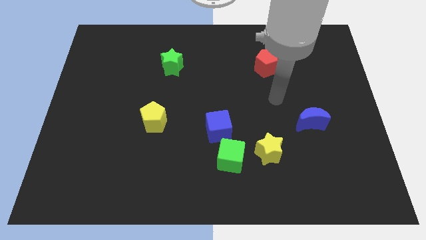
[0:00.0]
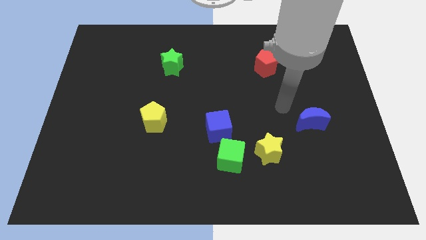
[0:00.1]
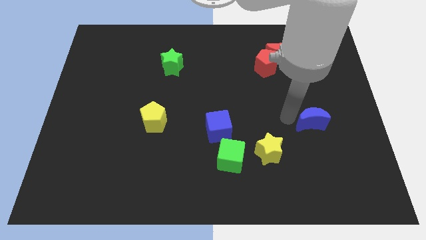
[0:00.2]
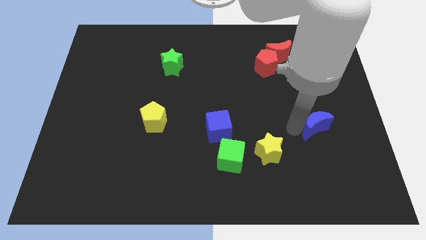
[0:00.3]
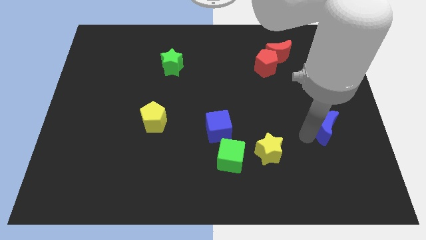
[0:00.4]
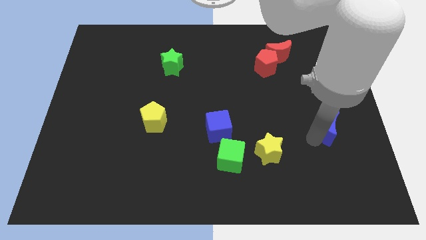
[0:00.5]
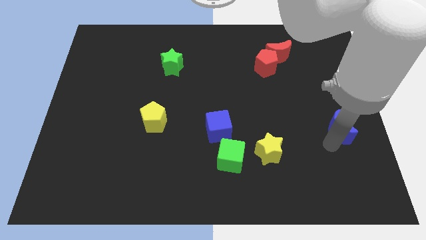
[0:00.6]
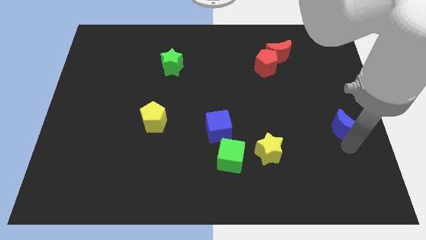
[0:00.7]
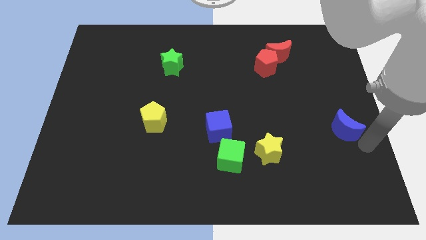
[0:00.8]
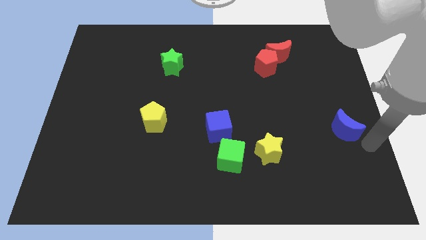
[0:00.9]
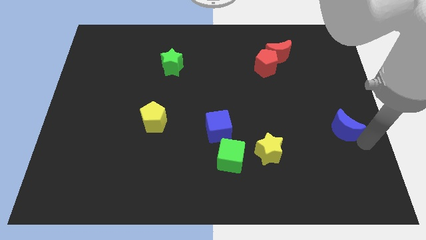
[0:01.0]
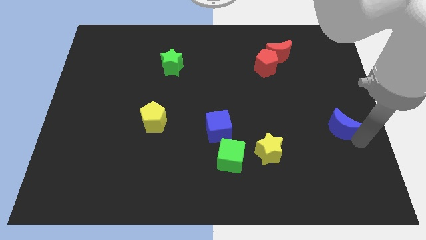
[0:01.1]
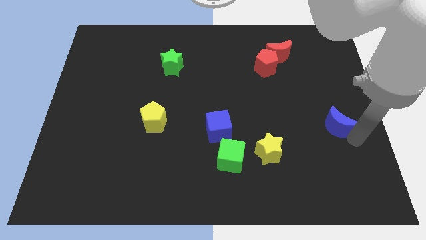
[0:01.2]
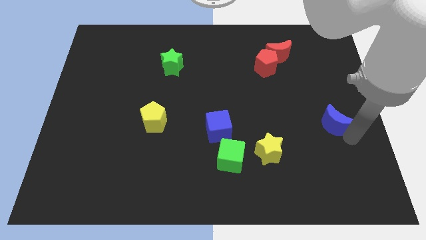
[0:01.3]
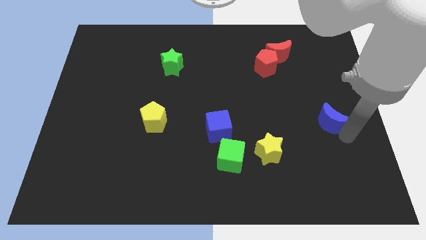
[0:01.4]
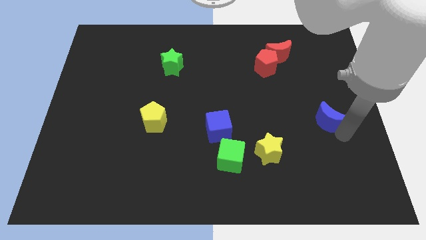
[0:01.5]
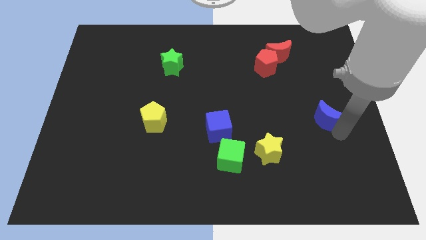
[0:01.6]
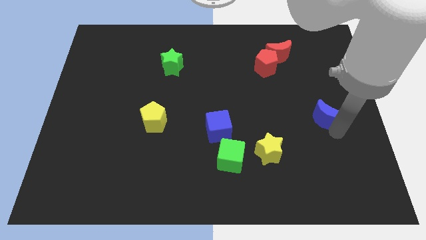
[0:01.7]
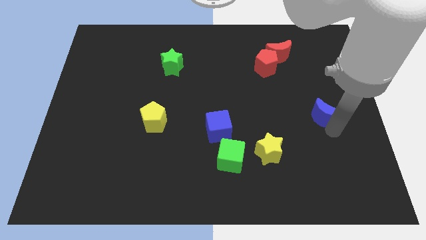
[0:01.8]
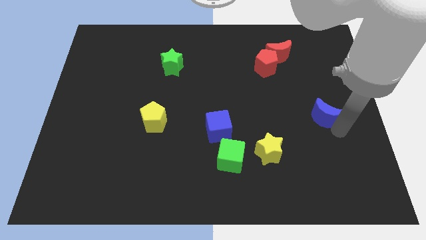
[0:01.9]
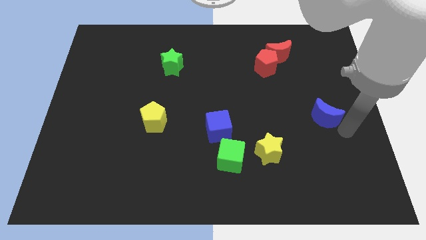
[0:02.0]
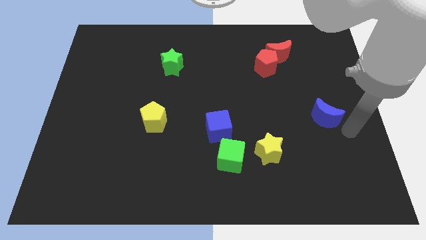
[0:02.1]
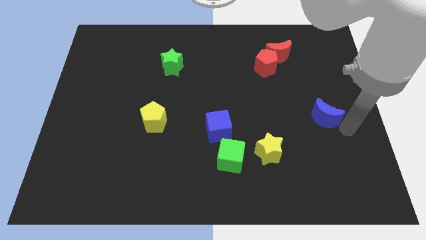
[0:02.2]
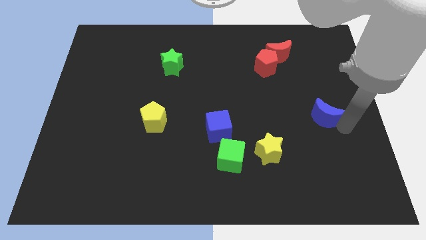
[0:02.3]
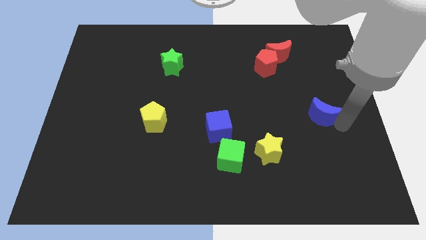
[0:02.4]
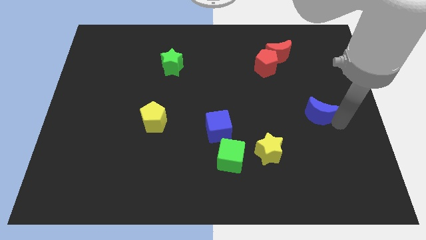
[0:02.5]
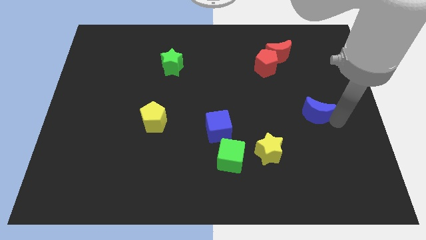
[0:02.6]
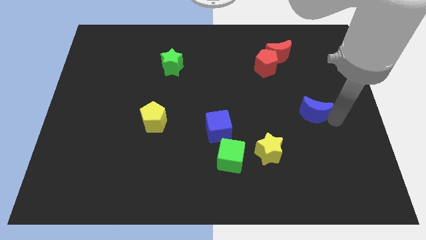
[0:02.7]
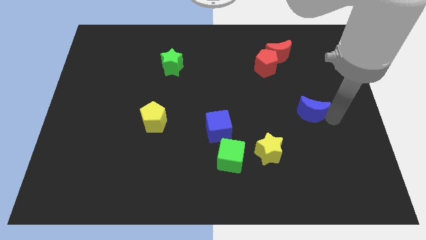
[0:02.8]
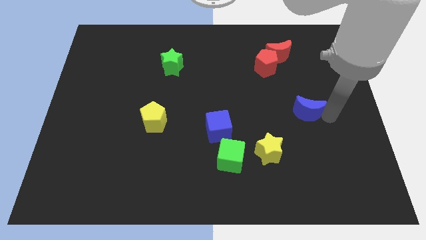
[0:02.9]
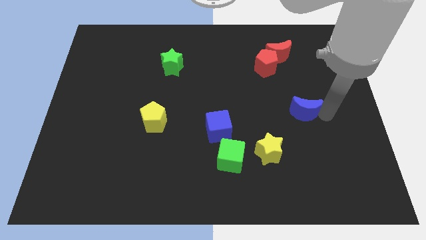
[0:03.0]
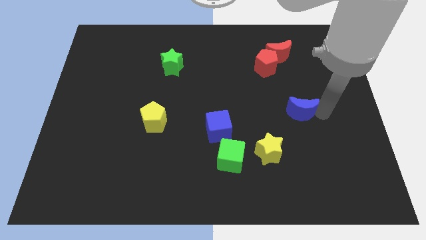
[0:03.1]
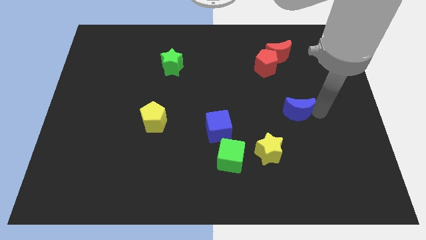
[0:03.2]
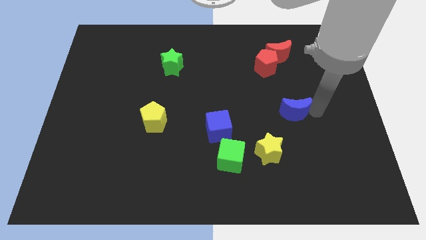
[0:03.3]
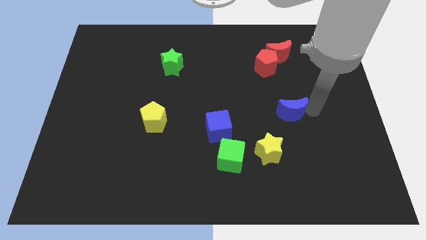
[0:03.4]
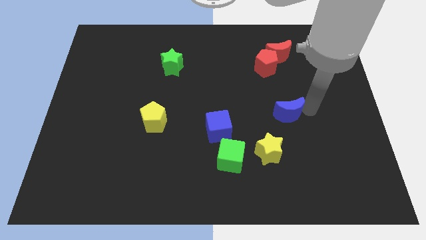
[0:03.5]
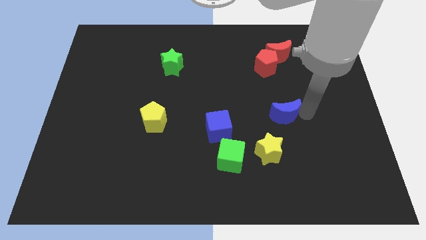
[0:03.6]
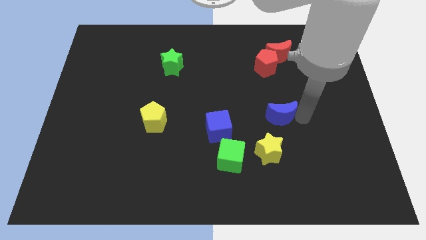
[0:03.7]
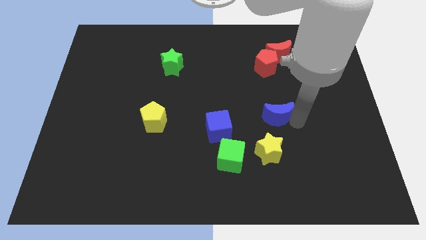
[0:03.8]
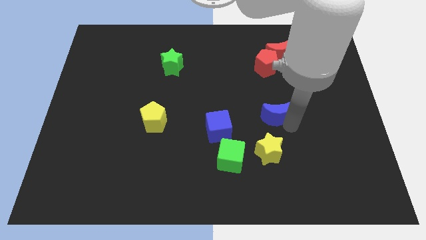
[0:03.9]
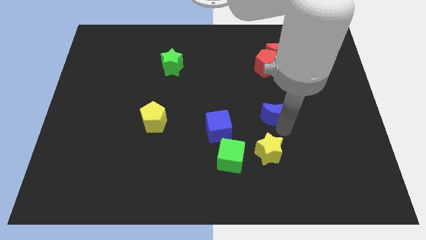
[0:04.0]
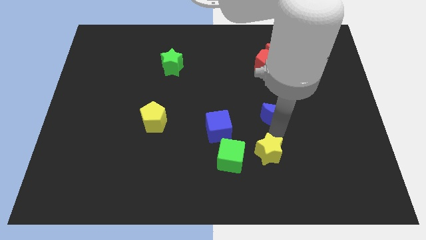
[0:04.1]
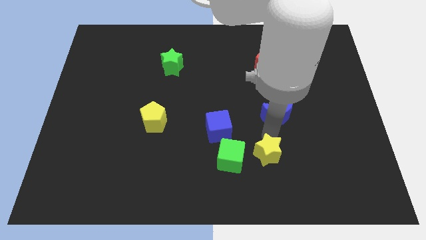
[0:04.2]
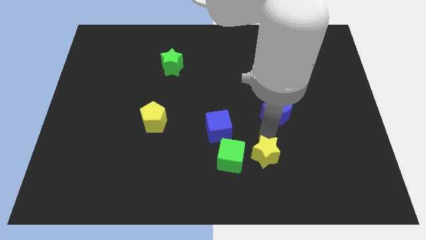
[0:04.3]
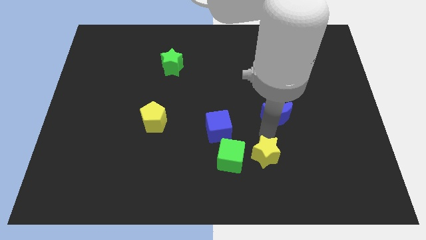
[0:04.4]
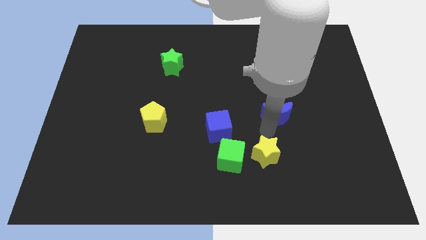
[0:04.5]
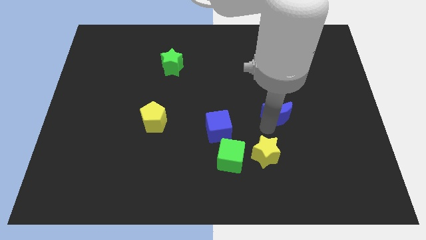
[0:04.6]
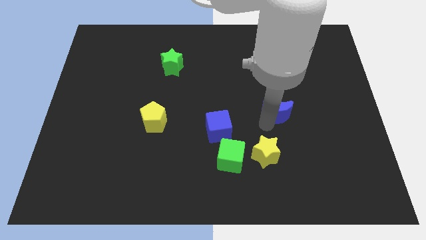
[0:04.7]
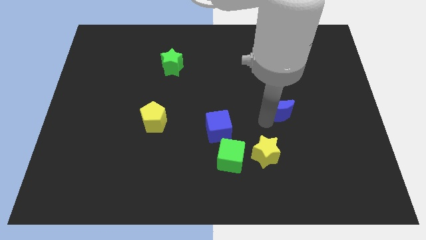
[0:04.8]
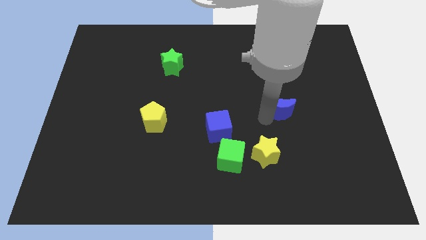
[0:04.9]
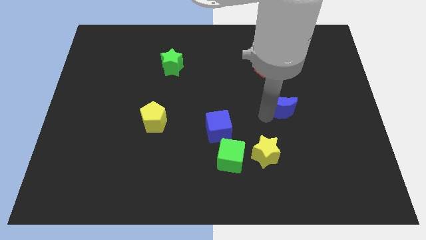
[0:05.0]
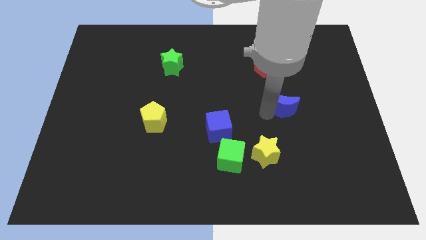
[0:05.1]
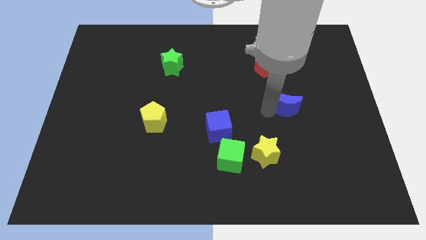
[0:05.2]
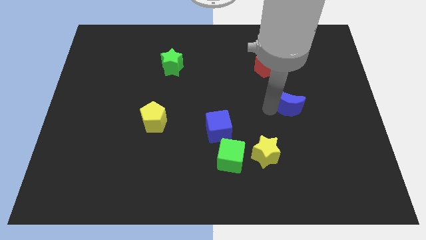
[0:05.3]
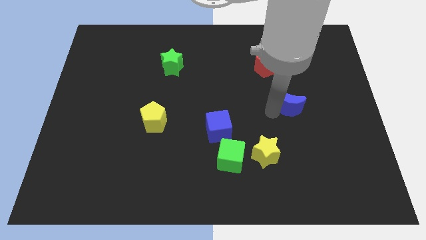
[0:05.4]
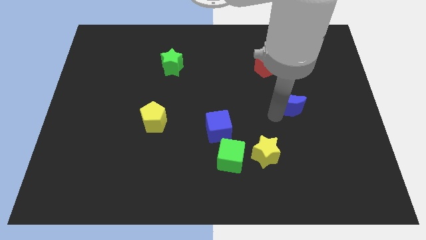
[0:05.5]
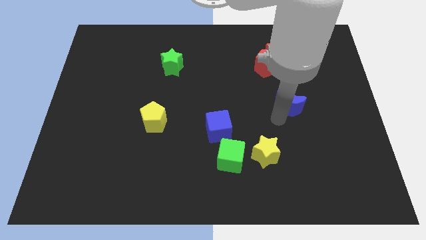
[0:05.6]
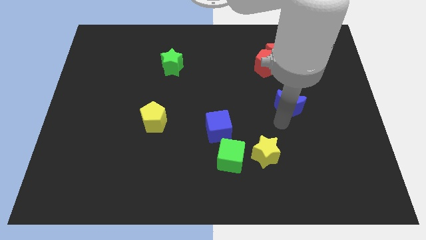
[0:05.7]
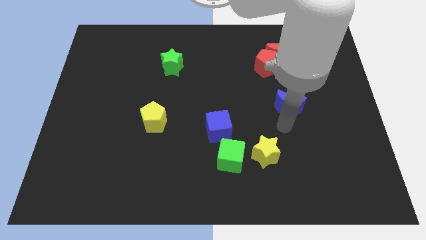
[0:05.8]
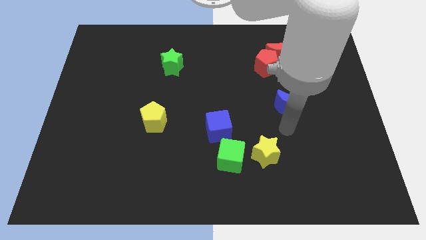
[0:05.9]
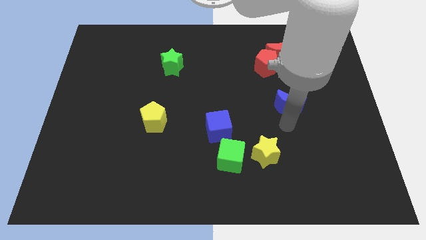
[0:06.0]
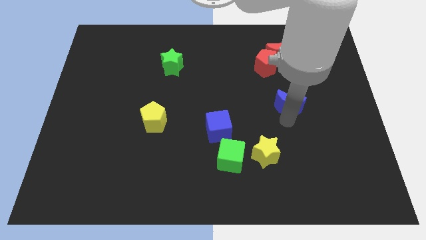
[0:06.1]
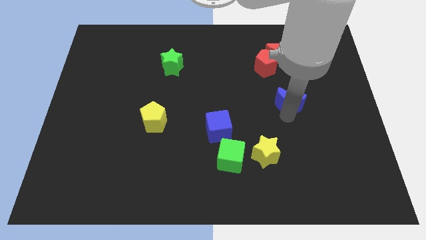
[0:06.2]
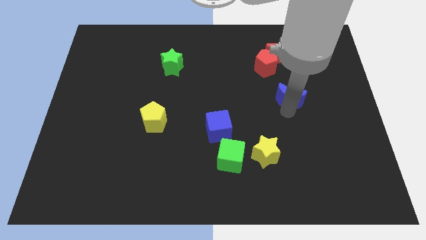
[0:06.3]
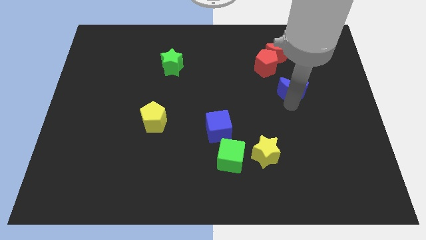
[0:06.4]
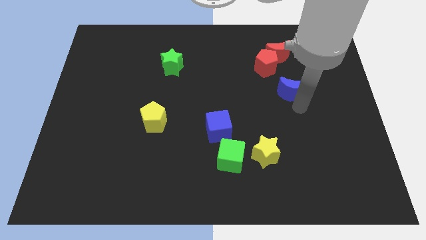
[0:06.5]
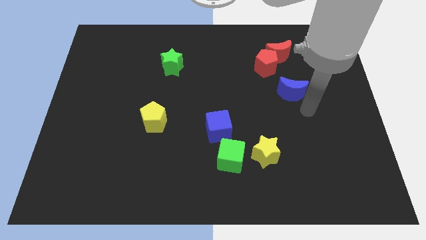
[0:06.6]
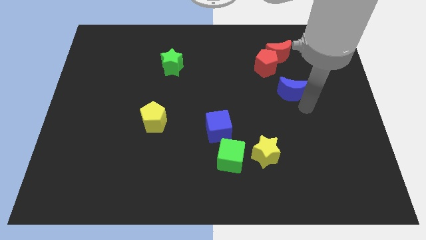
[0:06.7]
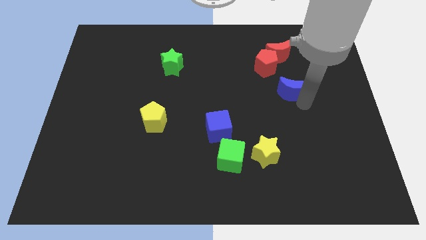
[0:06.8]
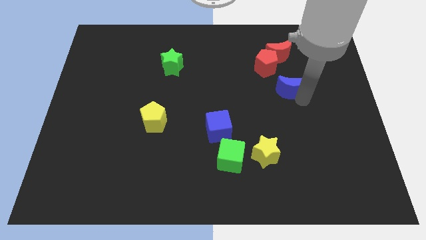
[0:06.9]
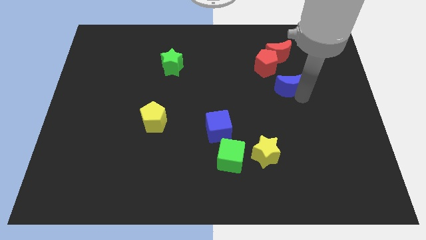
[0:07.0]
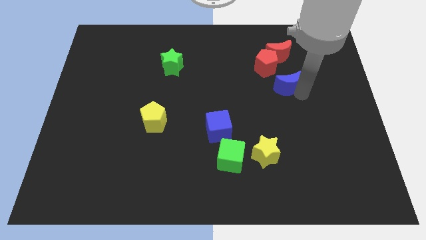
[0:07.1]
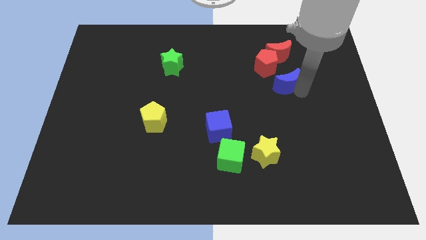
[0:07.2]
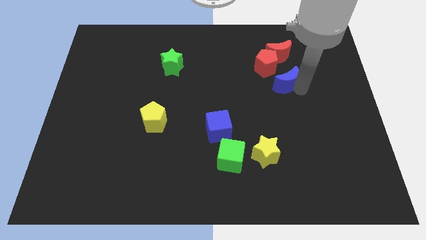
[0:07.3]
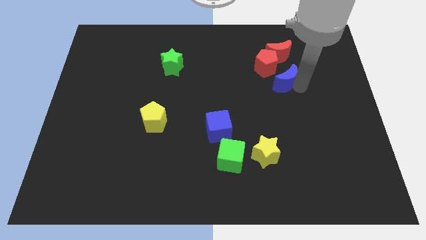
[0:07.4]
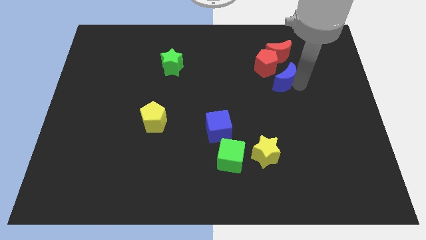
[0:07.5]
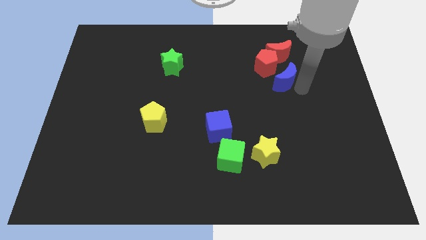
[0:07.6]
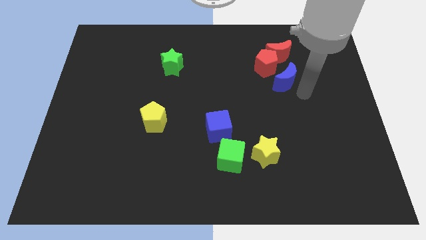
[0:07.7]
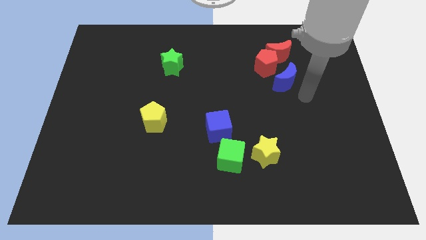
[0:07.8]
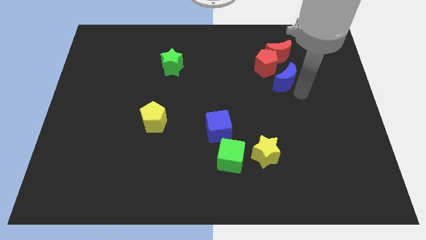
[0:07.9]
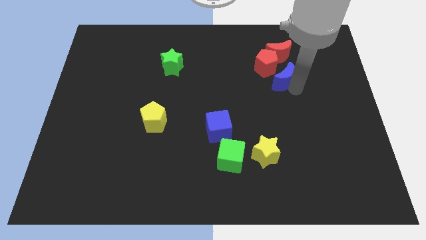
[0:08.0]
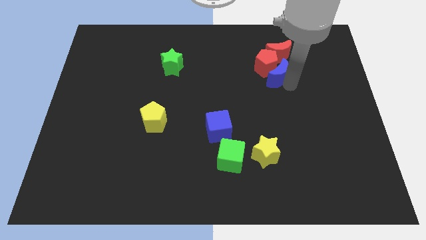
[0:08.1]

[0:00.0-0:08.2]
put the blue moon towards the red pentagon
